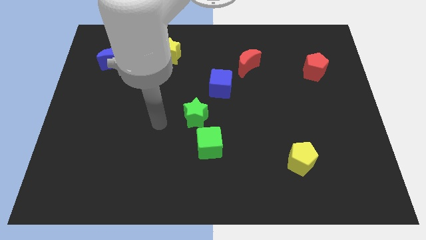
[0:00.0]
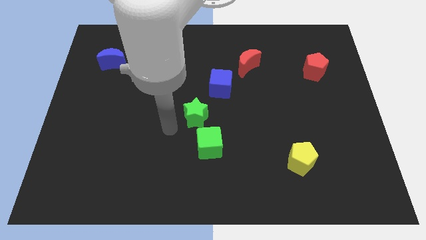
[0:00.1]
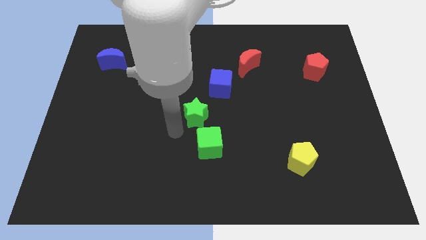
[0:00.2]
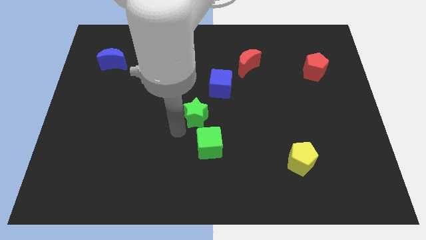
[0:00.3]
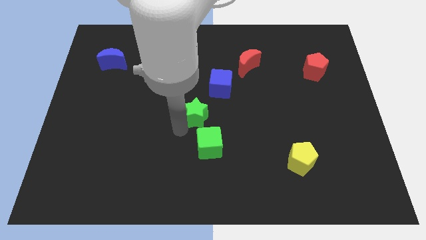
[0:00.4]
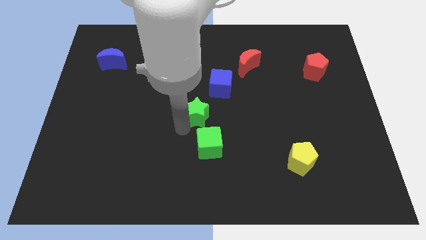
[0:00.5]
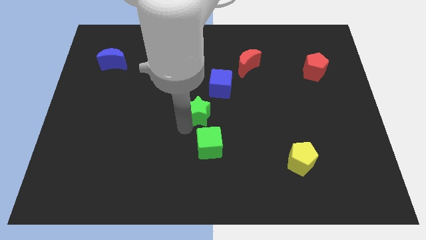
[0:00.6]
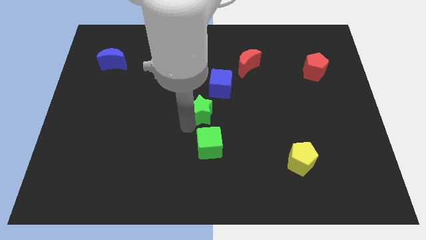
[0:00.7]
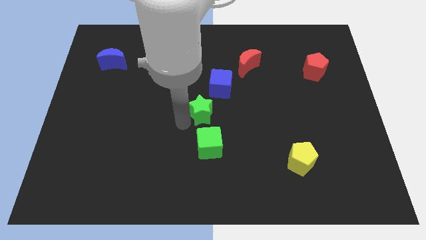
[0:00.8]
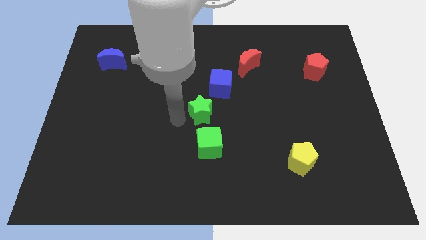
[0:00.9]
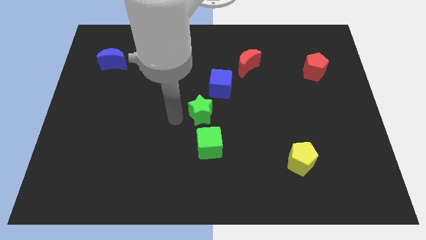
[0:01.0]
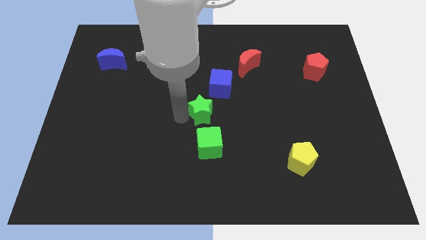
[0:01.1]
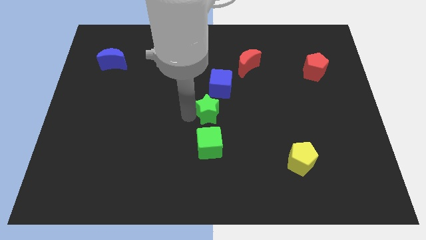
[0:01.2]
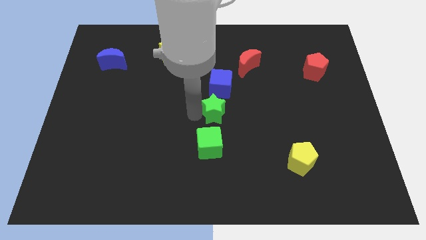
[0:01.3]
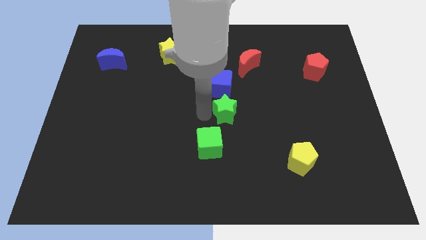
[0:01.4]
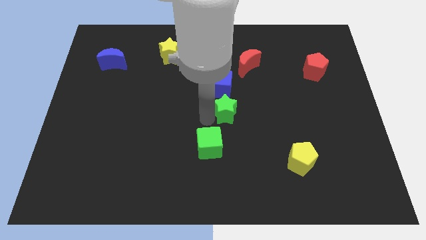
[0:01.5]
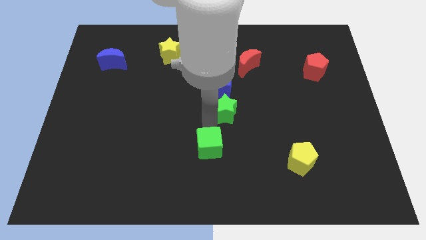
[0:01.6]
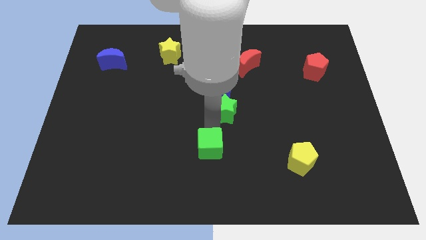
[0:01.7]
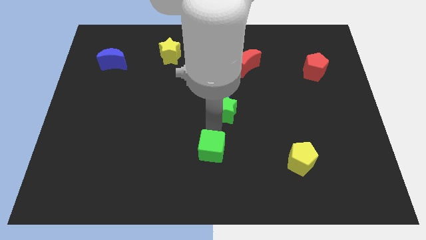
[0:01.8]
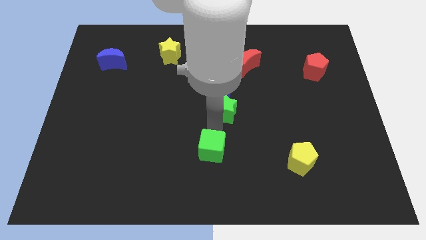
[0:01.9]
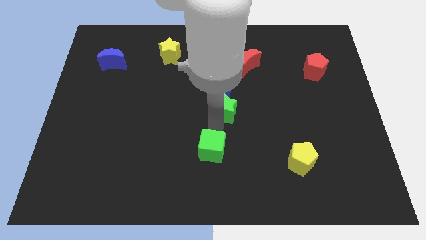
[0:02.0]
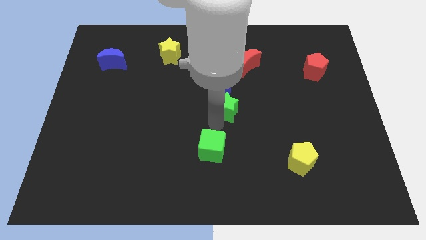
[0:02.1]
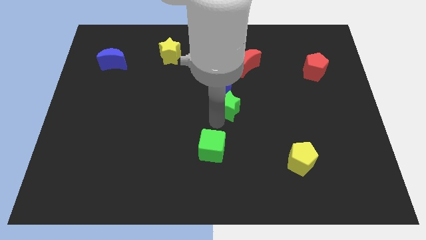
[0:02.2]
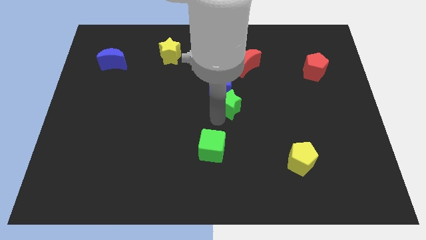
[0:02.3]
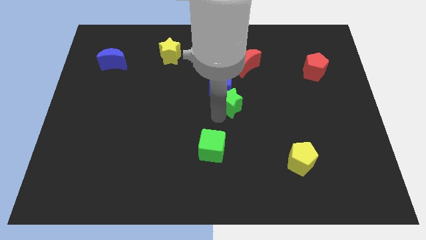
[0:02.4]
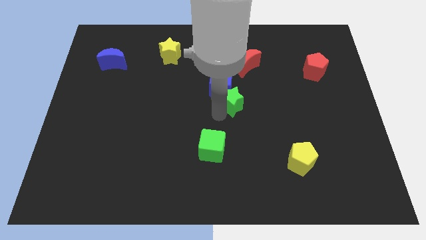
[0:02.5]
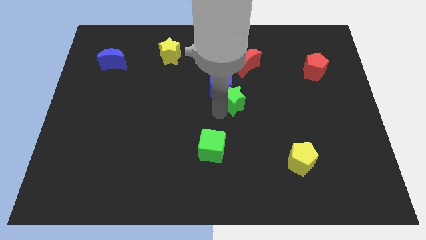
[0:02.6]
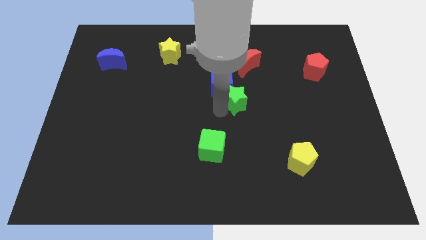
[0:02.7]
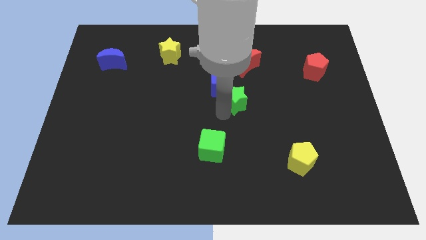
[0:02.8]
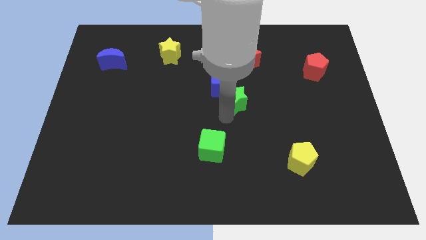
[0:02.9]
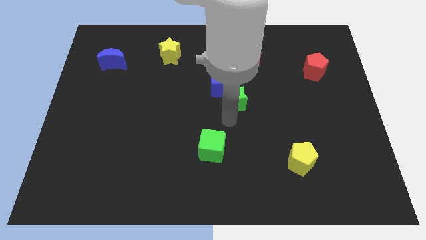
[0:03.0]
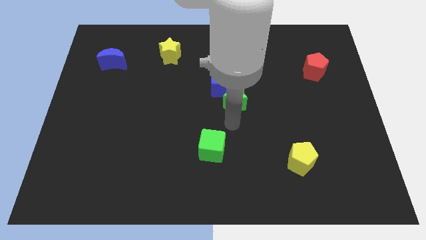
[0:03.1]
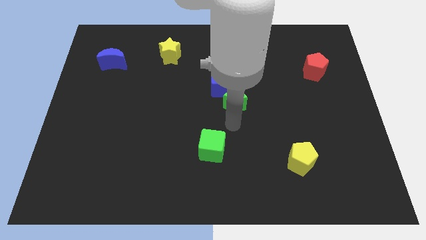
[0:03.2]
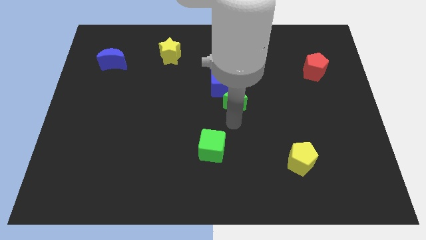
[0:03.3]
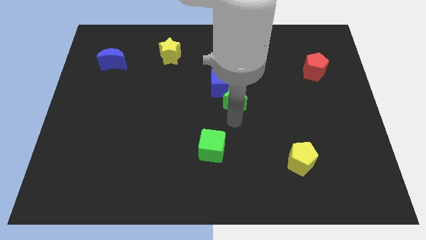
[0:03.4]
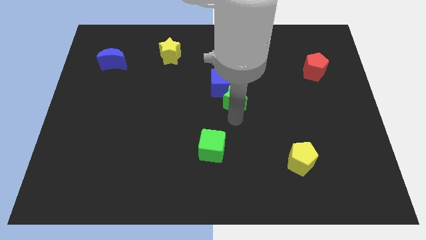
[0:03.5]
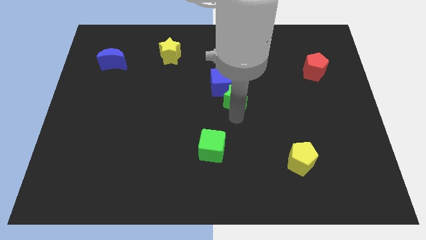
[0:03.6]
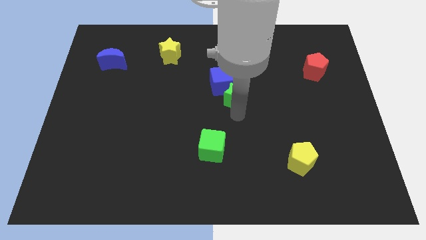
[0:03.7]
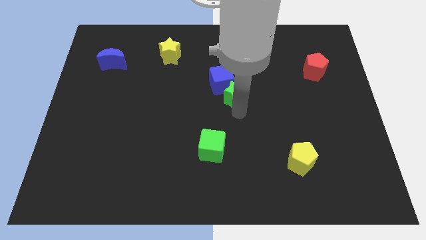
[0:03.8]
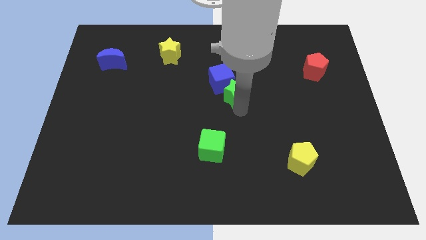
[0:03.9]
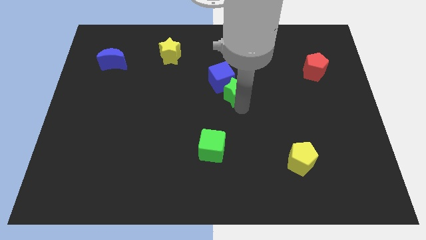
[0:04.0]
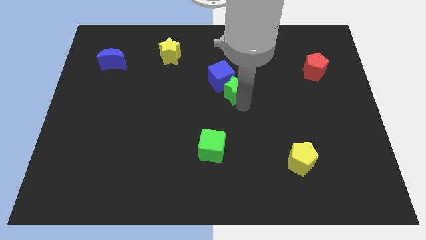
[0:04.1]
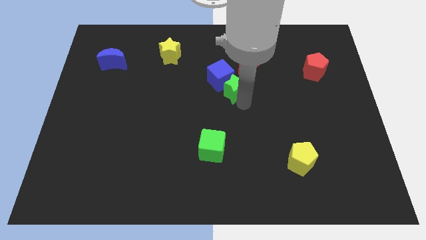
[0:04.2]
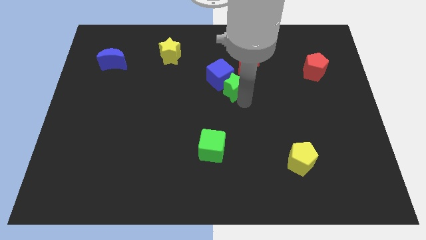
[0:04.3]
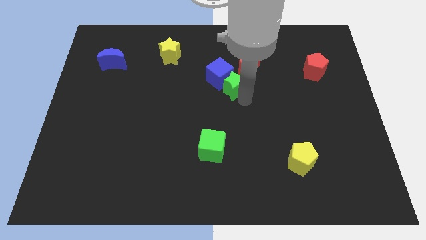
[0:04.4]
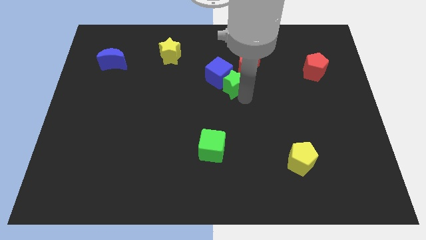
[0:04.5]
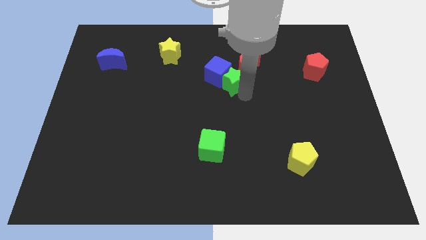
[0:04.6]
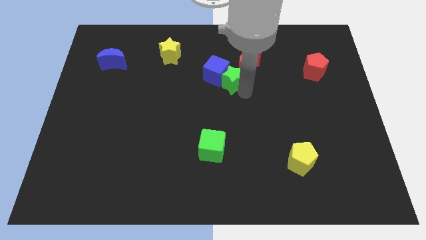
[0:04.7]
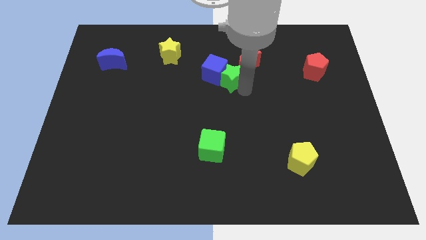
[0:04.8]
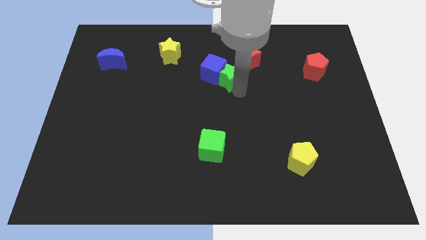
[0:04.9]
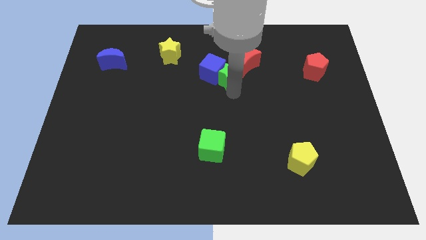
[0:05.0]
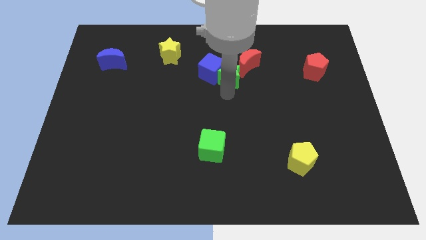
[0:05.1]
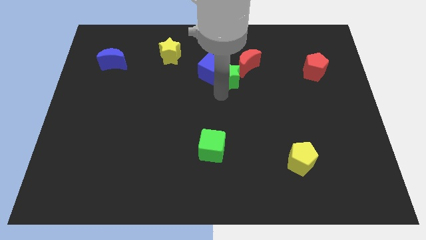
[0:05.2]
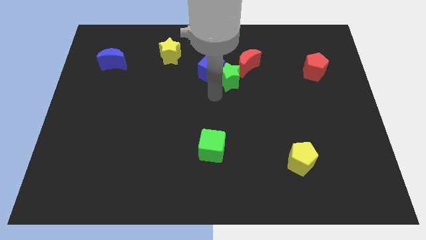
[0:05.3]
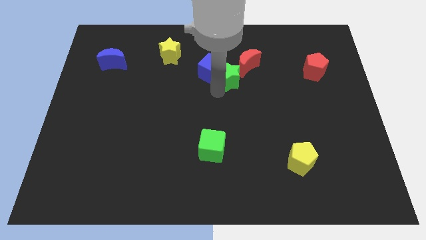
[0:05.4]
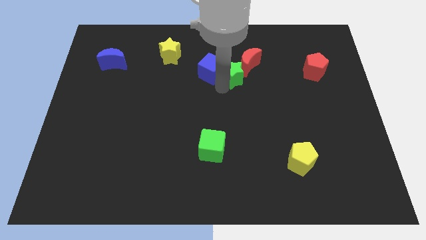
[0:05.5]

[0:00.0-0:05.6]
put the green star towards the red moon

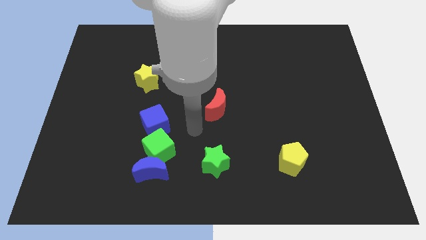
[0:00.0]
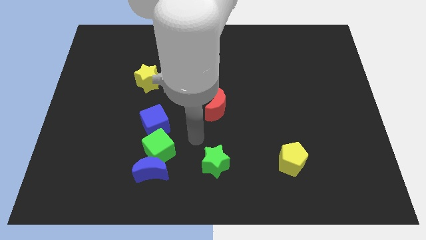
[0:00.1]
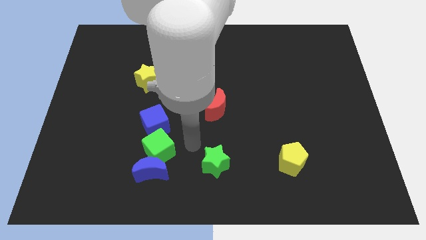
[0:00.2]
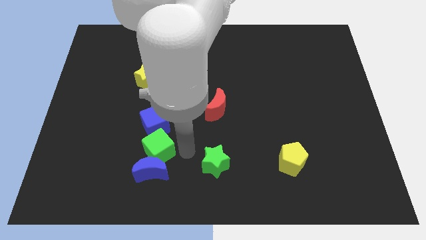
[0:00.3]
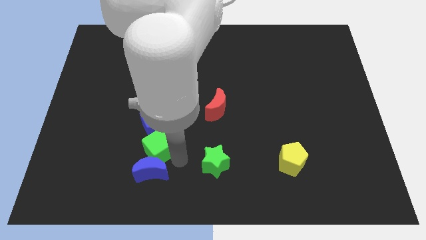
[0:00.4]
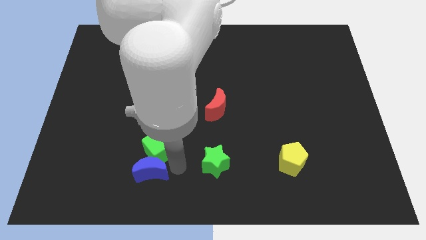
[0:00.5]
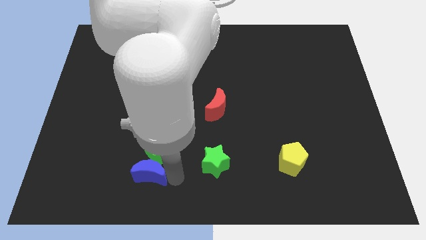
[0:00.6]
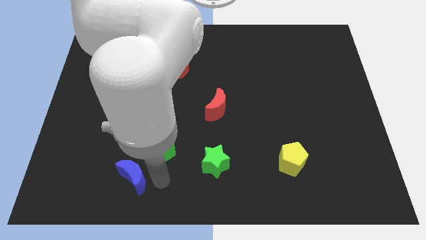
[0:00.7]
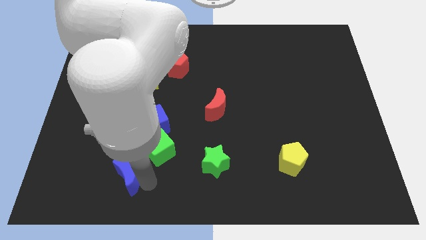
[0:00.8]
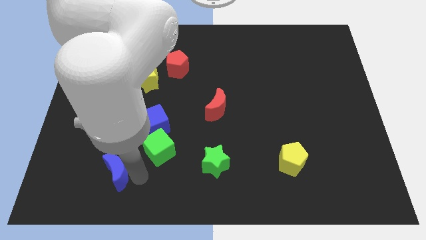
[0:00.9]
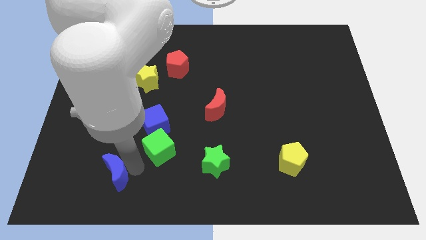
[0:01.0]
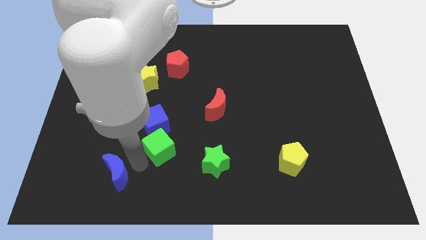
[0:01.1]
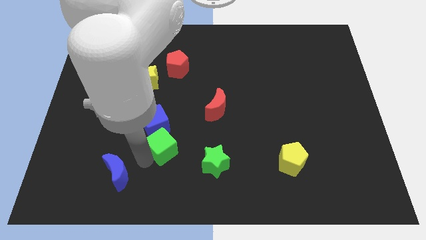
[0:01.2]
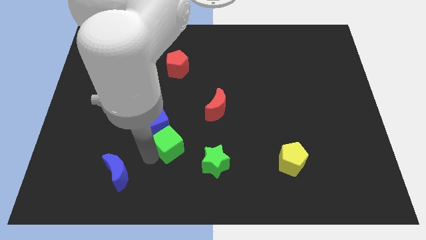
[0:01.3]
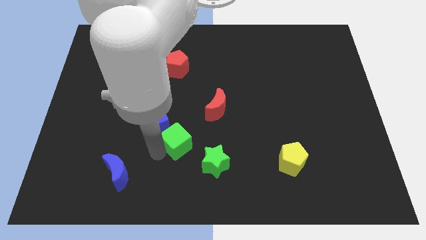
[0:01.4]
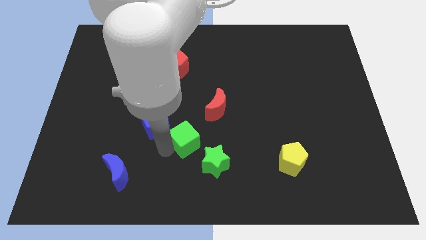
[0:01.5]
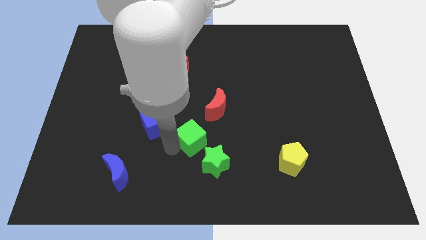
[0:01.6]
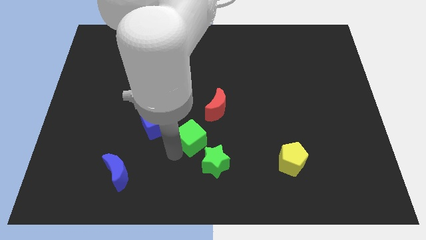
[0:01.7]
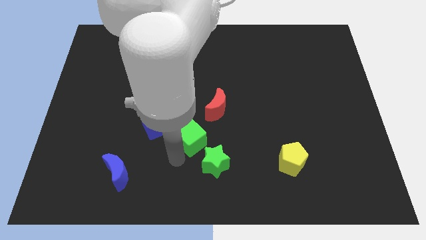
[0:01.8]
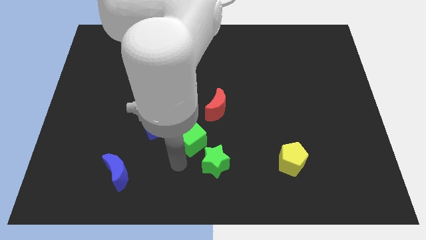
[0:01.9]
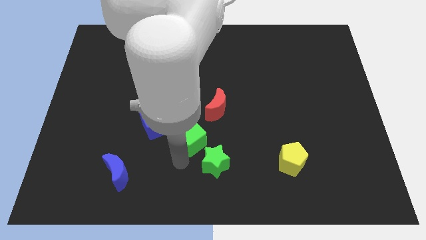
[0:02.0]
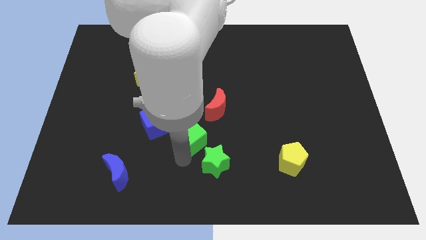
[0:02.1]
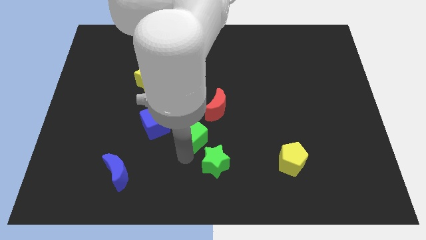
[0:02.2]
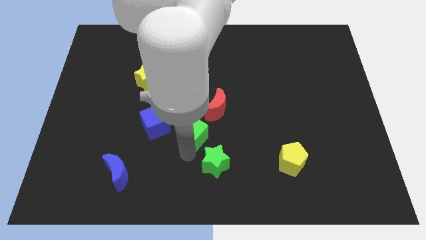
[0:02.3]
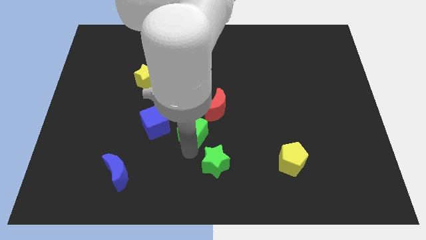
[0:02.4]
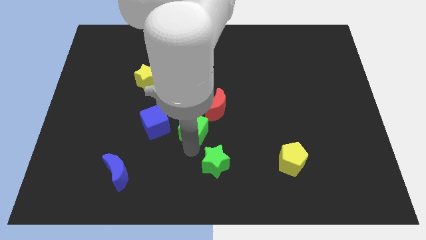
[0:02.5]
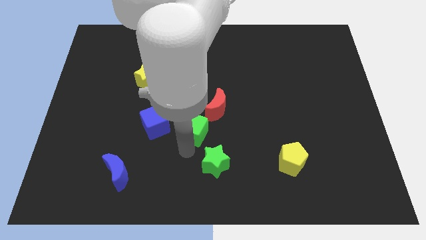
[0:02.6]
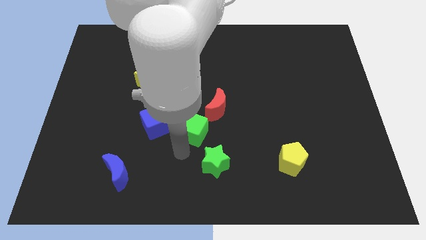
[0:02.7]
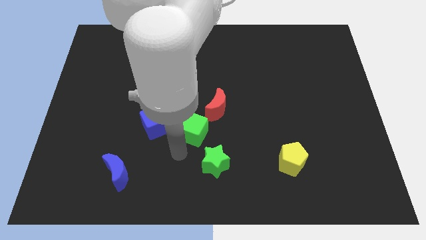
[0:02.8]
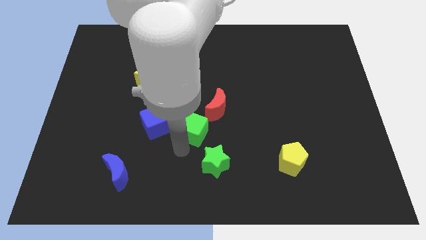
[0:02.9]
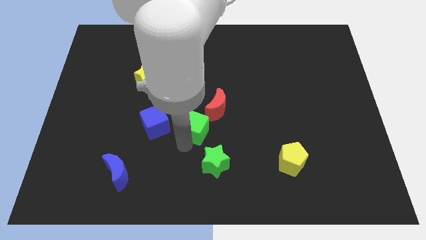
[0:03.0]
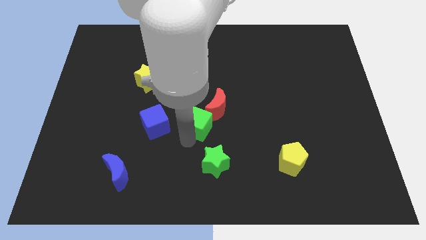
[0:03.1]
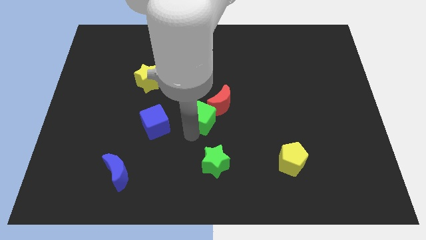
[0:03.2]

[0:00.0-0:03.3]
move the green cube close to the red moon
